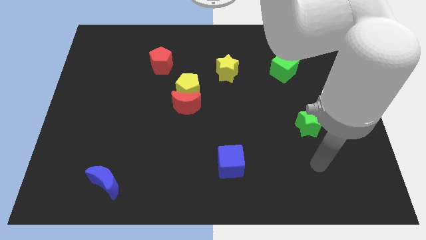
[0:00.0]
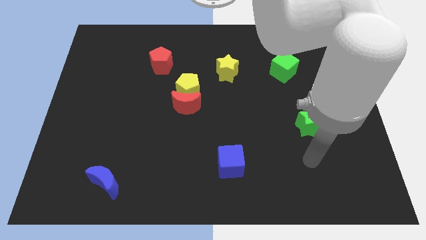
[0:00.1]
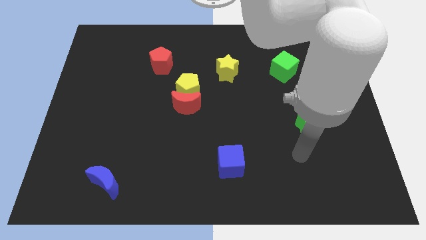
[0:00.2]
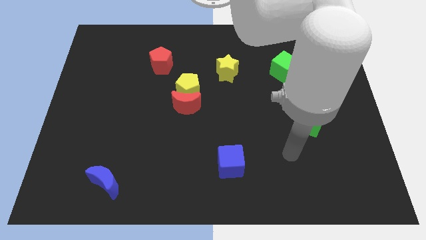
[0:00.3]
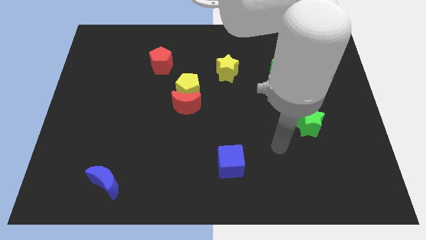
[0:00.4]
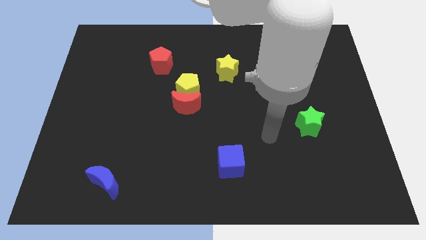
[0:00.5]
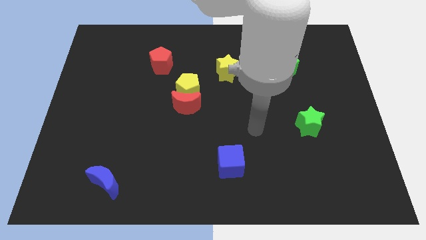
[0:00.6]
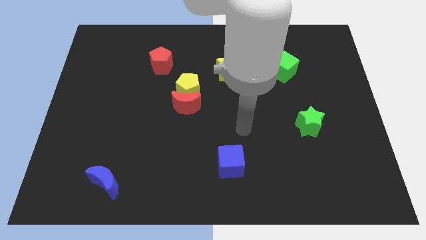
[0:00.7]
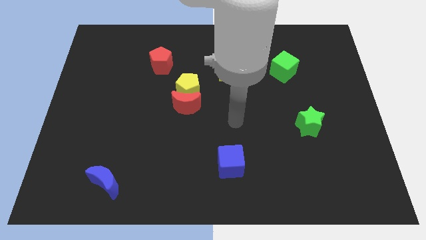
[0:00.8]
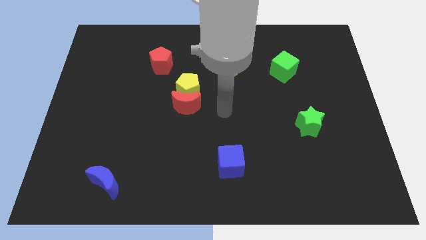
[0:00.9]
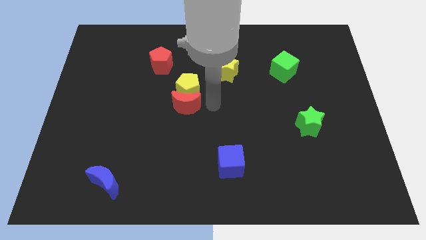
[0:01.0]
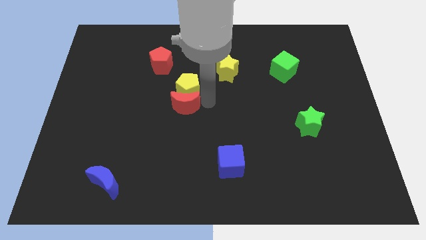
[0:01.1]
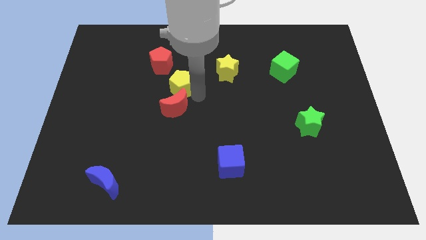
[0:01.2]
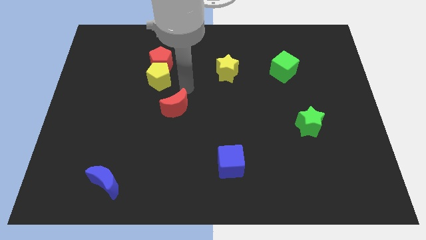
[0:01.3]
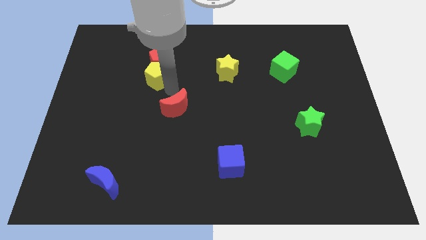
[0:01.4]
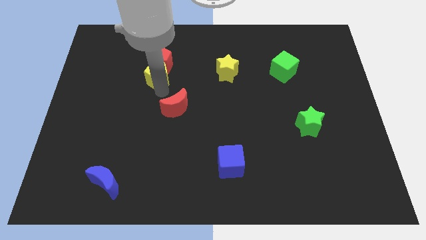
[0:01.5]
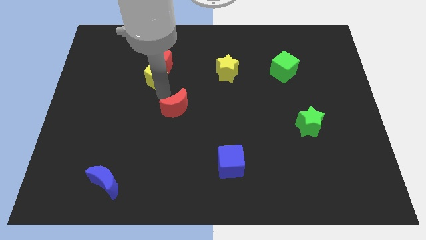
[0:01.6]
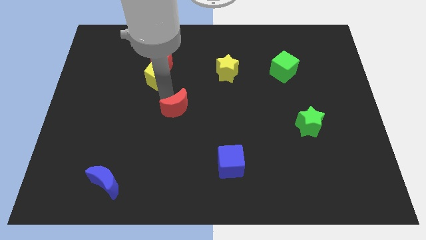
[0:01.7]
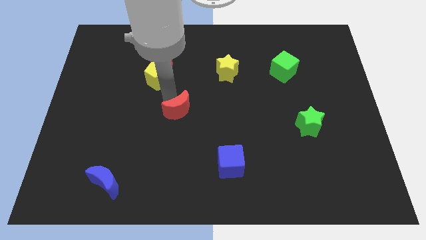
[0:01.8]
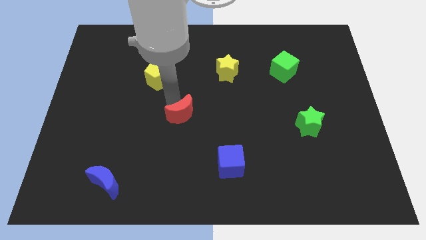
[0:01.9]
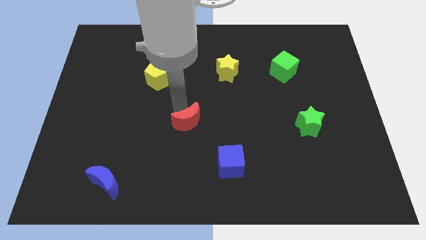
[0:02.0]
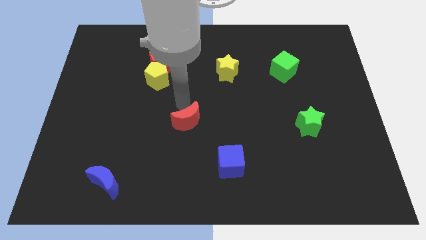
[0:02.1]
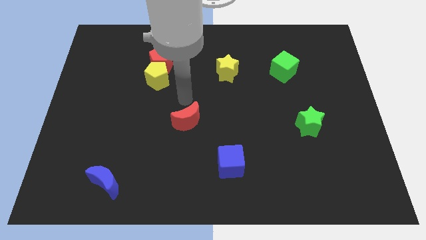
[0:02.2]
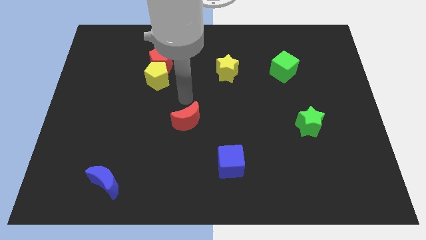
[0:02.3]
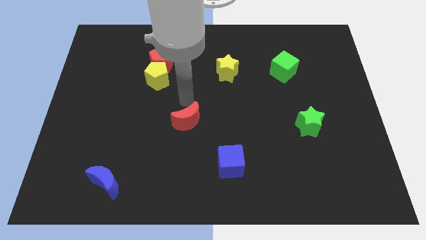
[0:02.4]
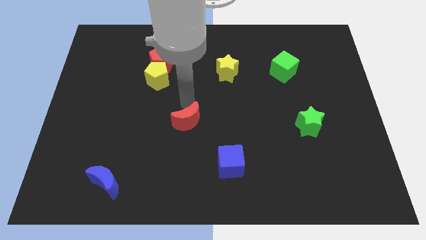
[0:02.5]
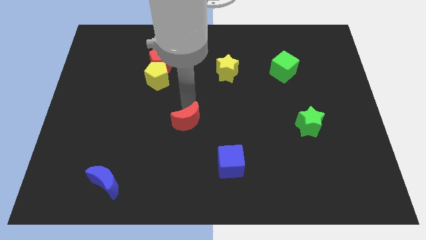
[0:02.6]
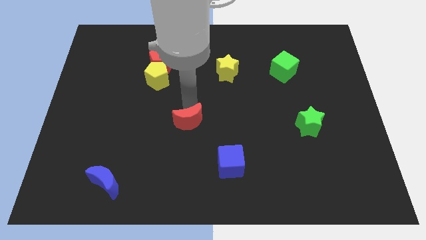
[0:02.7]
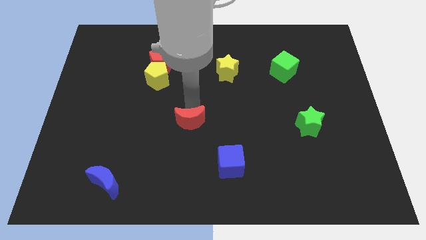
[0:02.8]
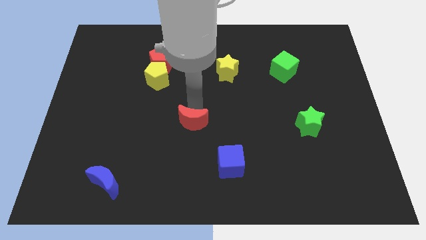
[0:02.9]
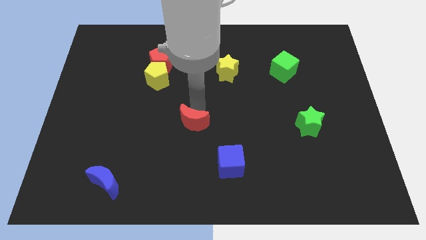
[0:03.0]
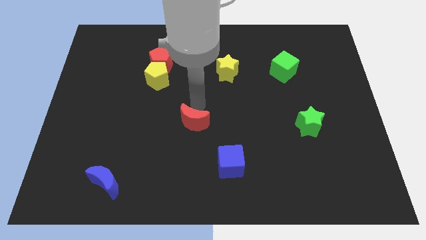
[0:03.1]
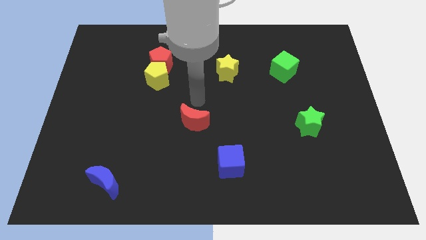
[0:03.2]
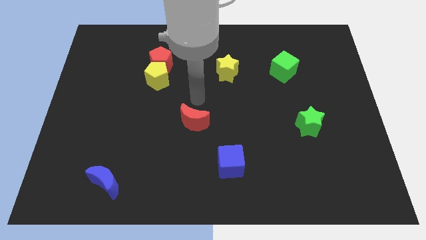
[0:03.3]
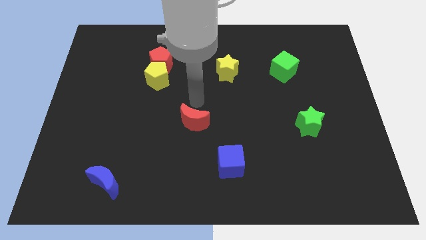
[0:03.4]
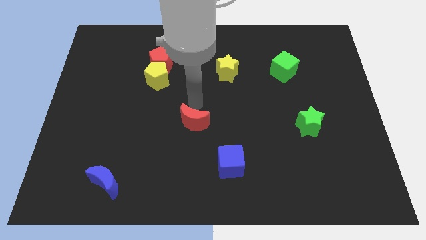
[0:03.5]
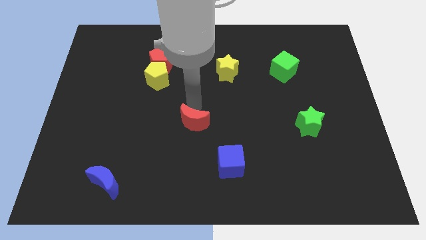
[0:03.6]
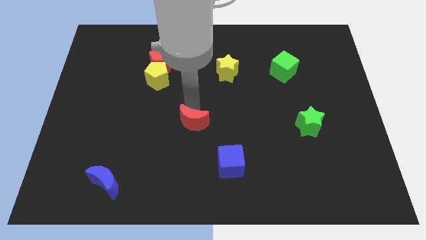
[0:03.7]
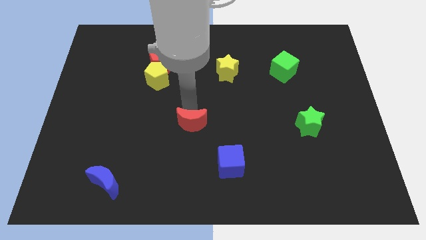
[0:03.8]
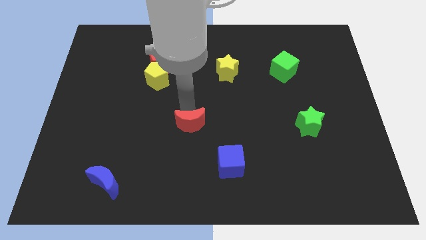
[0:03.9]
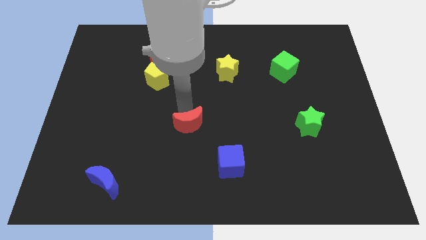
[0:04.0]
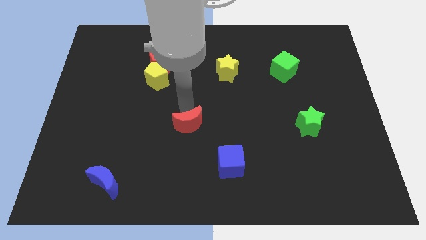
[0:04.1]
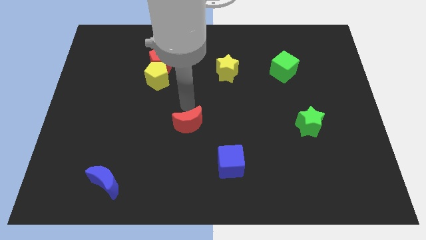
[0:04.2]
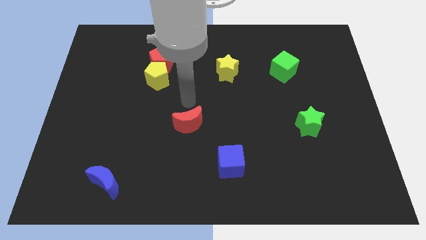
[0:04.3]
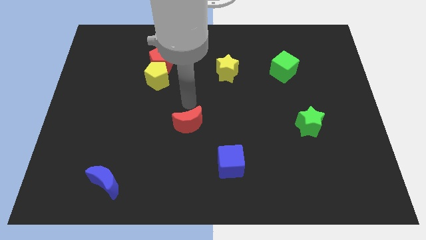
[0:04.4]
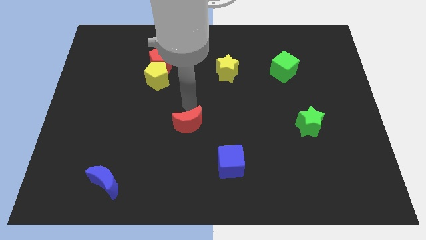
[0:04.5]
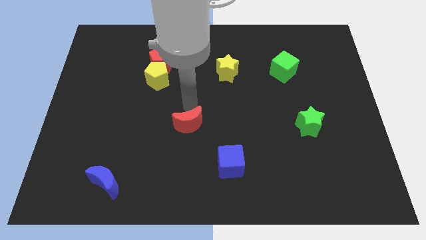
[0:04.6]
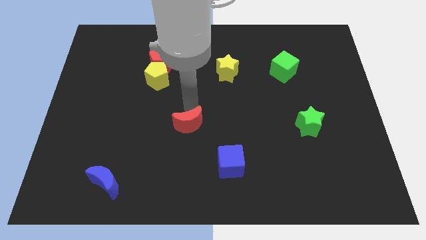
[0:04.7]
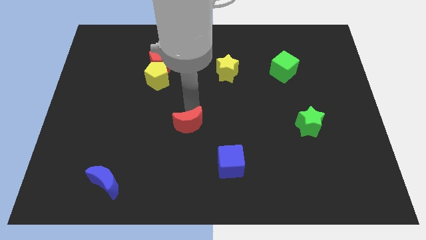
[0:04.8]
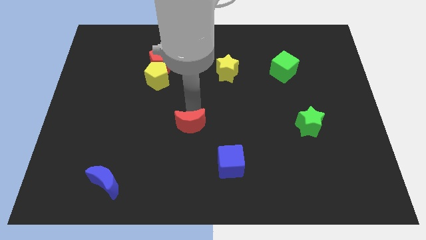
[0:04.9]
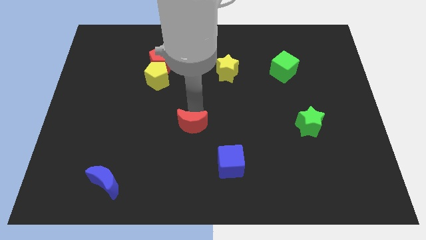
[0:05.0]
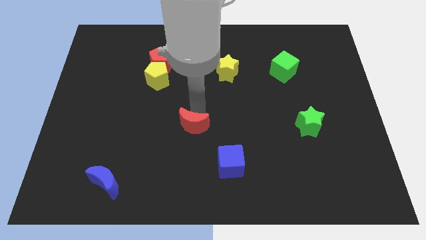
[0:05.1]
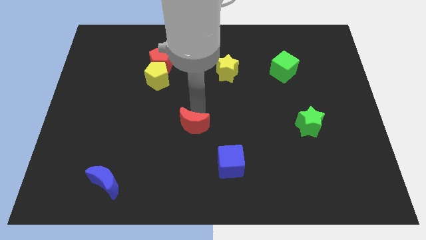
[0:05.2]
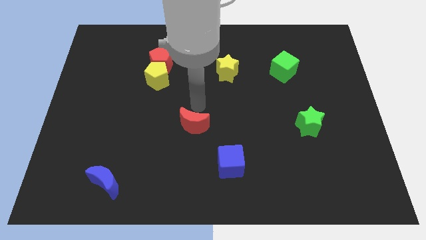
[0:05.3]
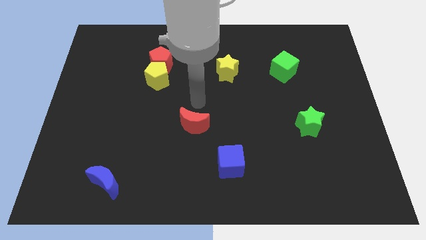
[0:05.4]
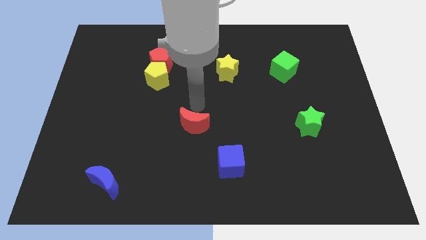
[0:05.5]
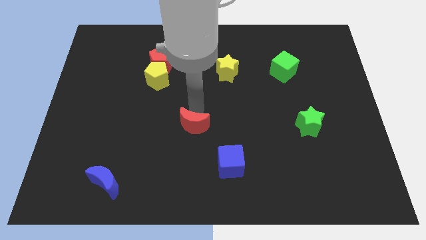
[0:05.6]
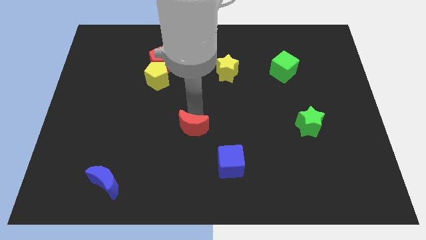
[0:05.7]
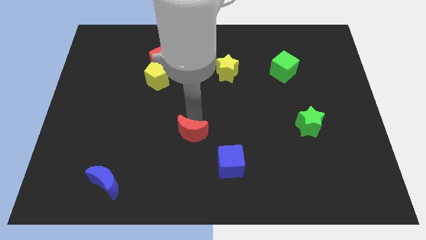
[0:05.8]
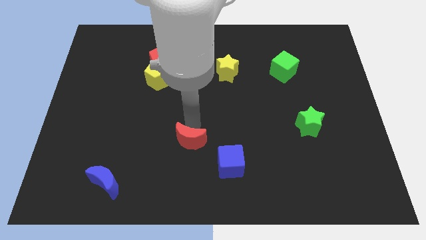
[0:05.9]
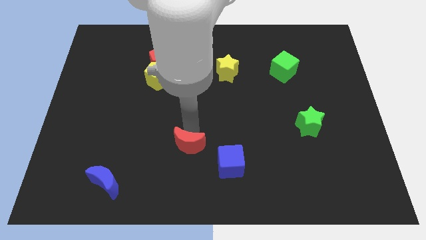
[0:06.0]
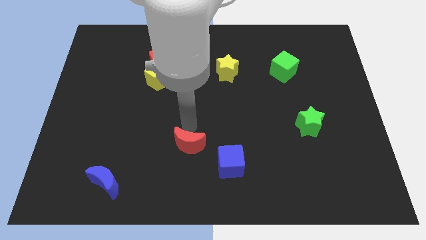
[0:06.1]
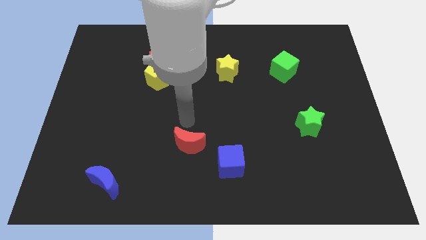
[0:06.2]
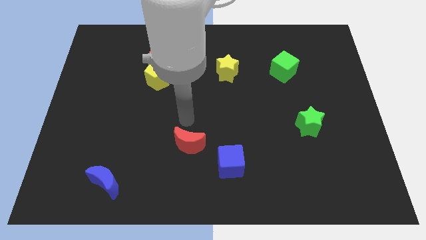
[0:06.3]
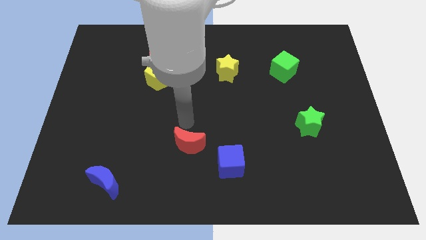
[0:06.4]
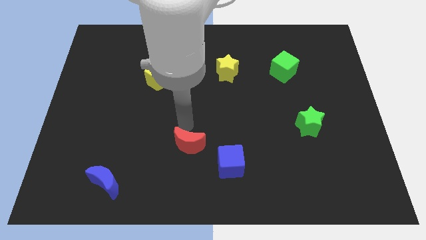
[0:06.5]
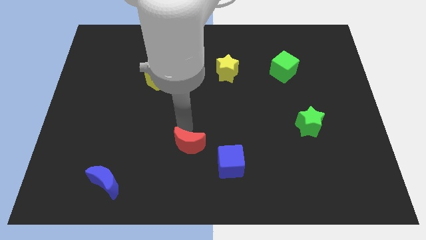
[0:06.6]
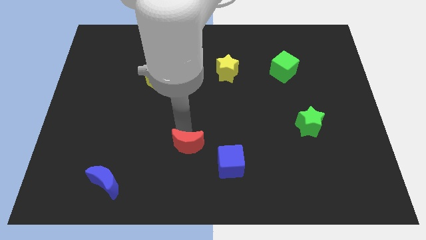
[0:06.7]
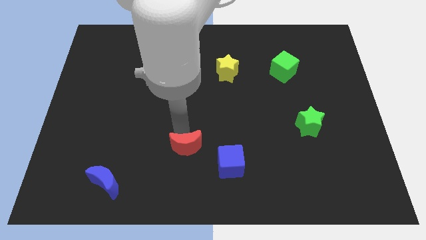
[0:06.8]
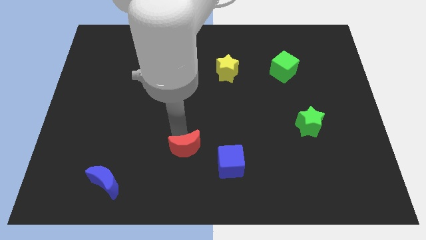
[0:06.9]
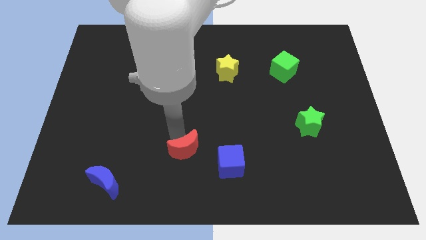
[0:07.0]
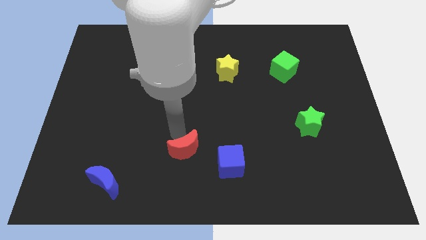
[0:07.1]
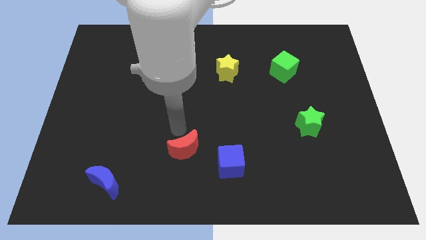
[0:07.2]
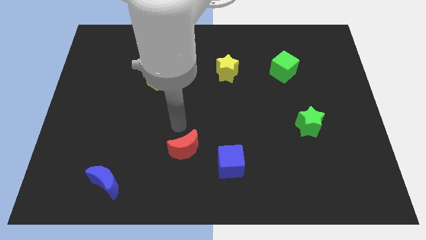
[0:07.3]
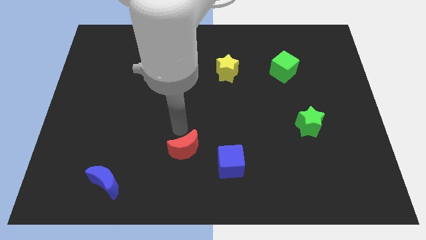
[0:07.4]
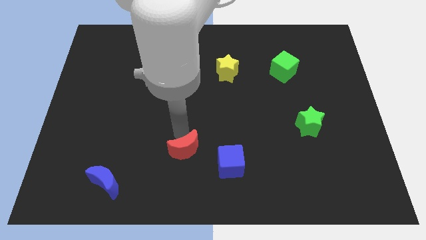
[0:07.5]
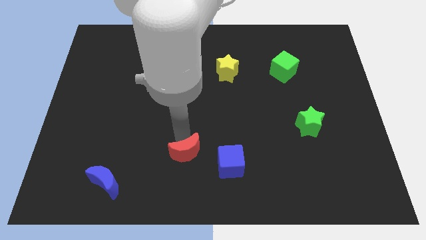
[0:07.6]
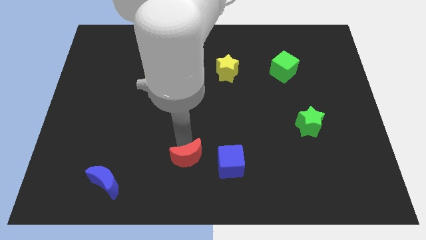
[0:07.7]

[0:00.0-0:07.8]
slide the red moon to the bottom side
